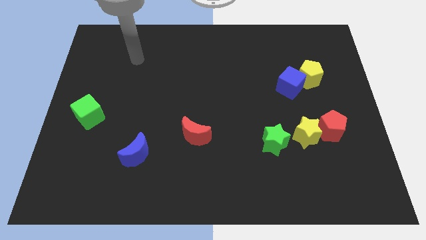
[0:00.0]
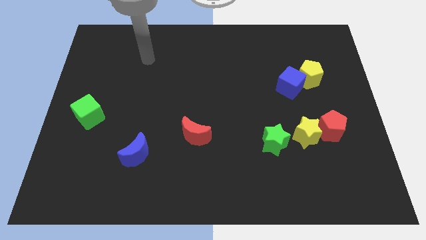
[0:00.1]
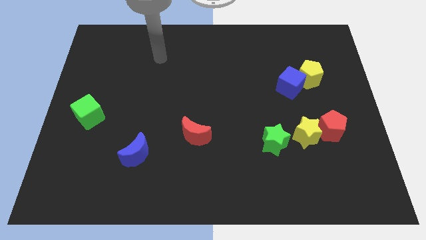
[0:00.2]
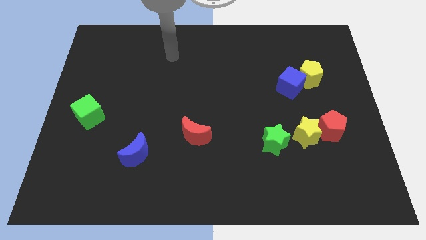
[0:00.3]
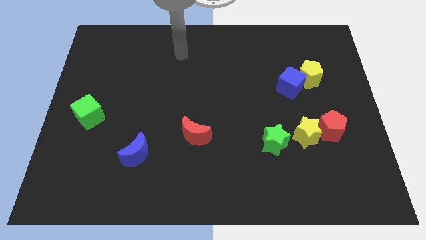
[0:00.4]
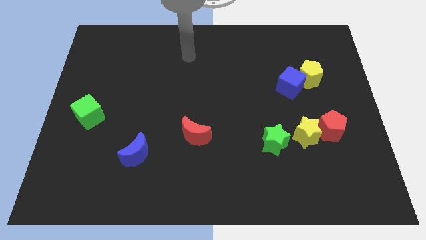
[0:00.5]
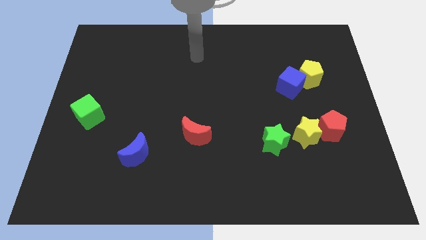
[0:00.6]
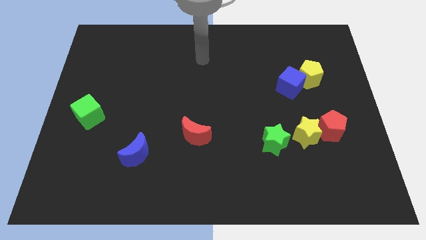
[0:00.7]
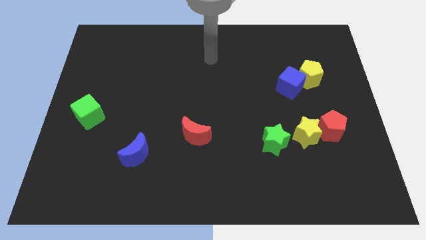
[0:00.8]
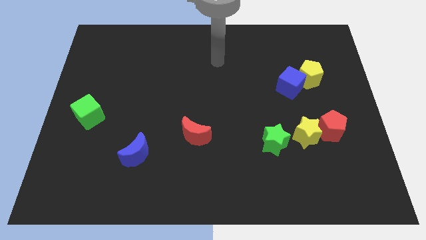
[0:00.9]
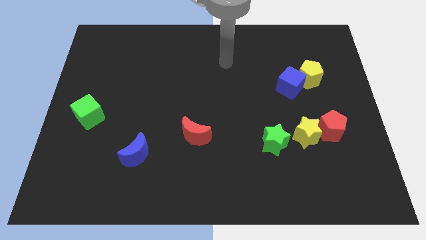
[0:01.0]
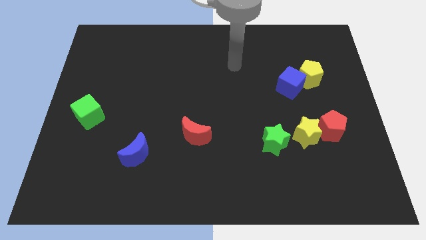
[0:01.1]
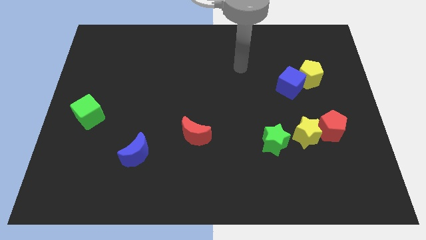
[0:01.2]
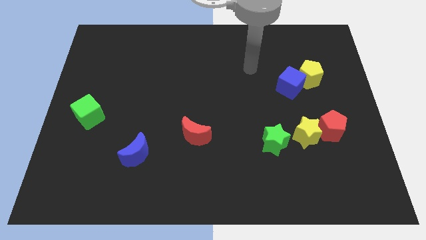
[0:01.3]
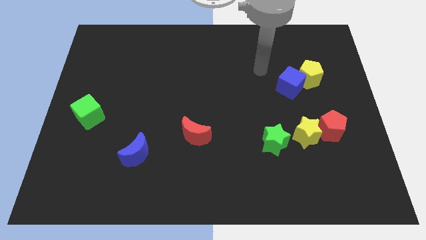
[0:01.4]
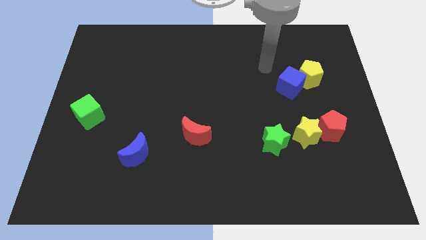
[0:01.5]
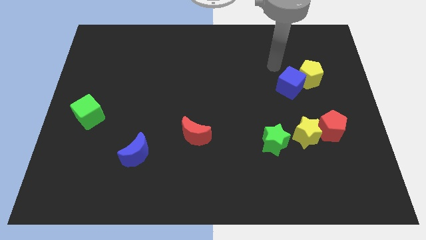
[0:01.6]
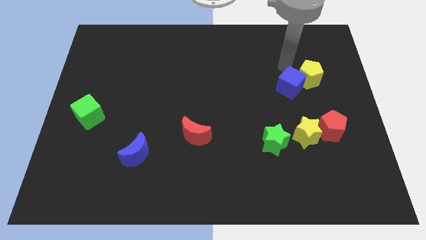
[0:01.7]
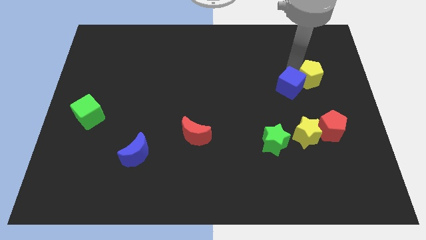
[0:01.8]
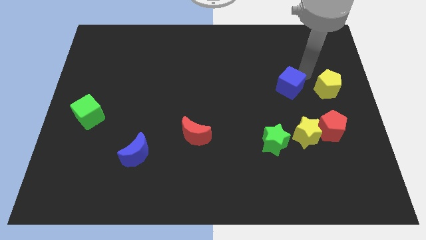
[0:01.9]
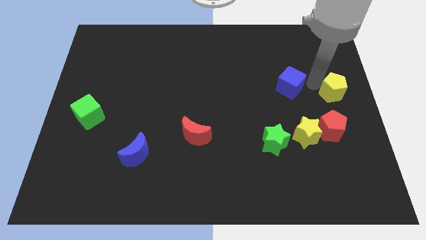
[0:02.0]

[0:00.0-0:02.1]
pull the blue cube apart from the yellow pentagon

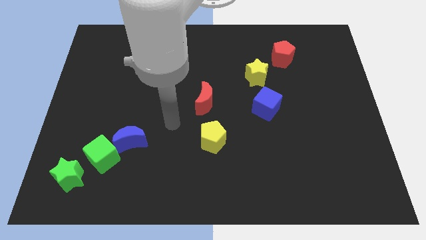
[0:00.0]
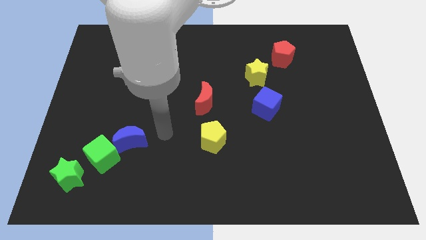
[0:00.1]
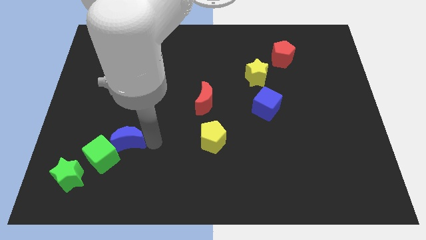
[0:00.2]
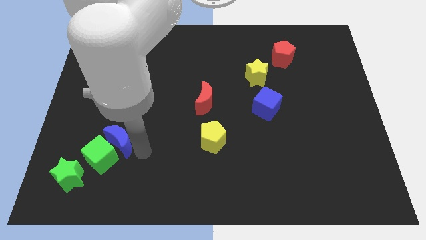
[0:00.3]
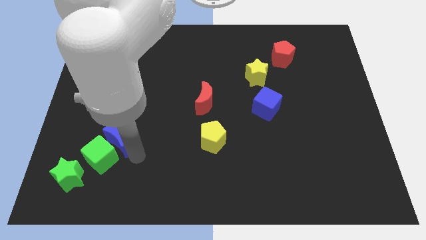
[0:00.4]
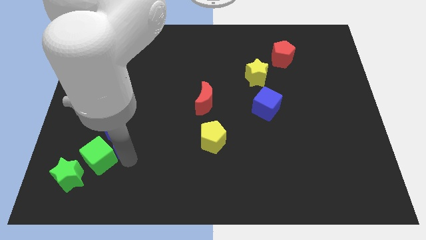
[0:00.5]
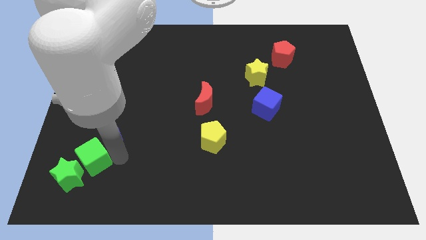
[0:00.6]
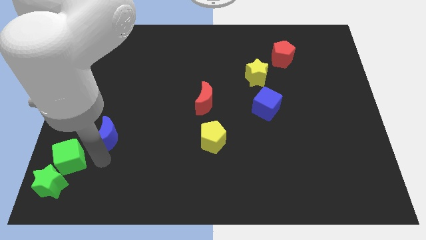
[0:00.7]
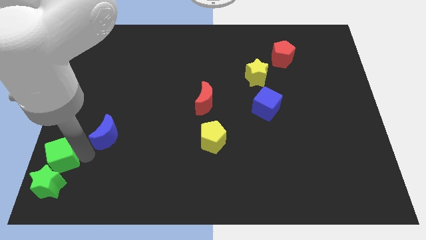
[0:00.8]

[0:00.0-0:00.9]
separate the blue moon from the green cube

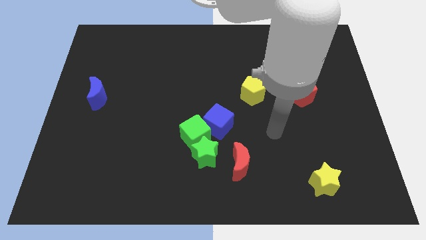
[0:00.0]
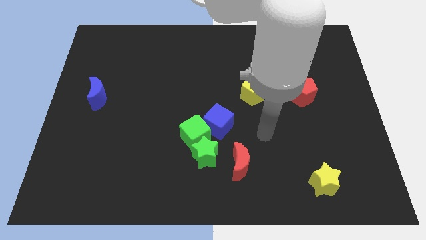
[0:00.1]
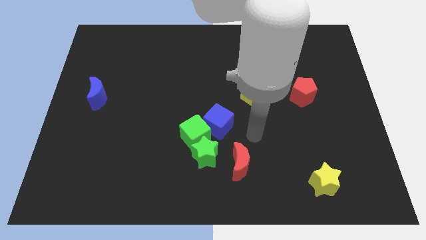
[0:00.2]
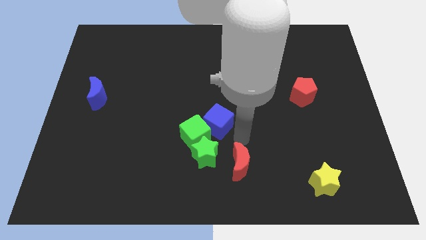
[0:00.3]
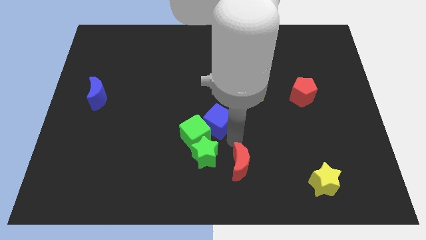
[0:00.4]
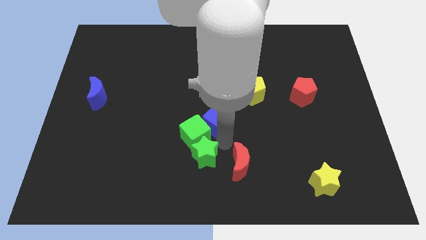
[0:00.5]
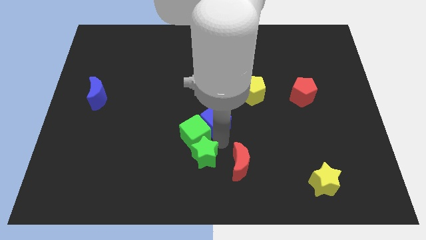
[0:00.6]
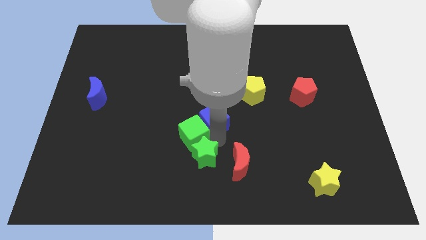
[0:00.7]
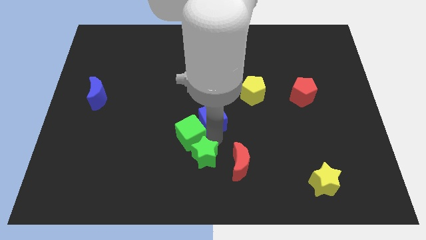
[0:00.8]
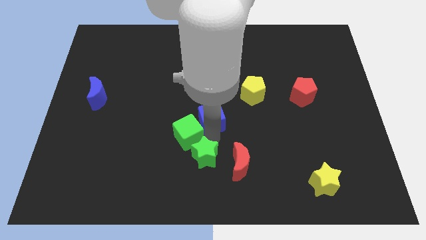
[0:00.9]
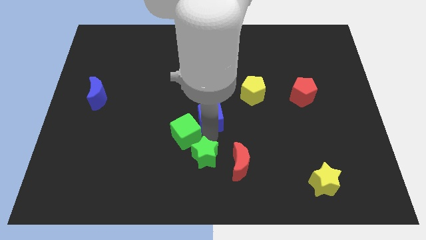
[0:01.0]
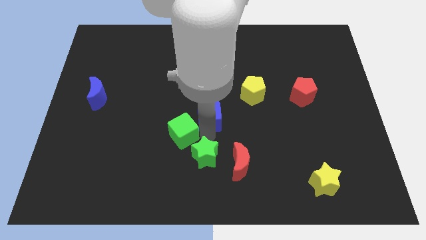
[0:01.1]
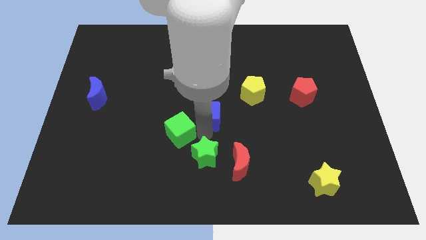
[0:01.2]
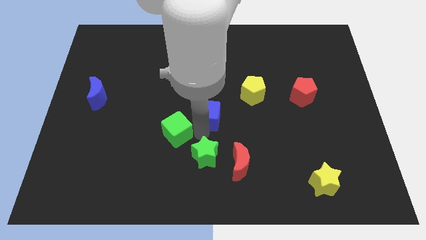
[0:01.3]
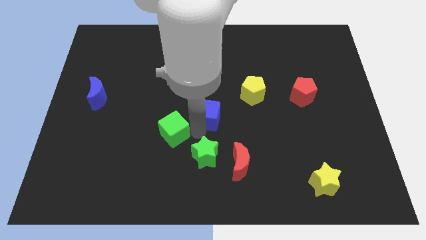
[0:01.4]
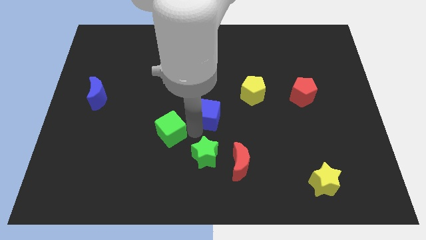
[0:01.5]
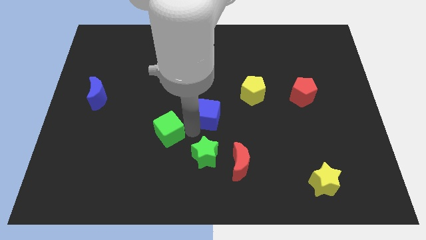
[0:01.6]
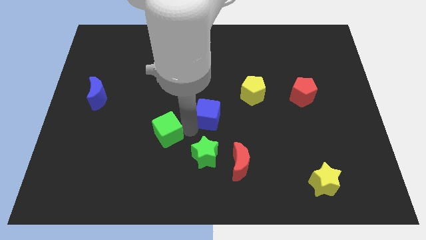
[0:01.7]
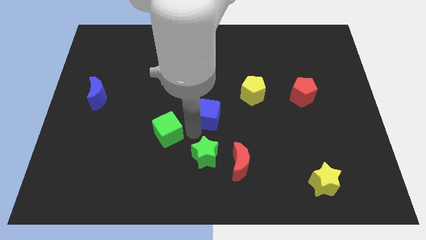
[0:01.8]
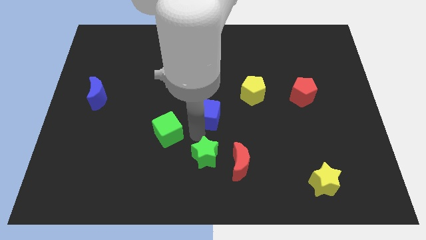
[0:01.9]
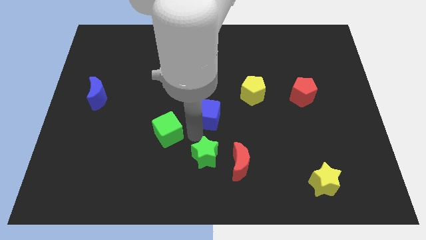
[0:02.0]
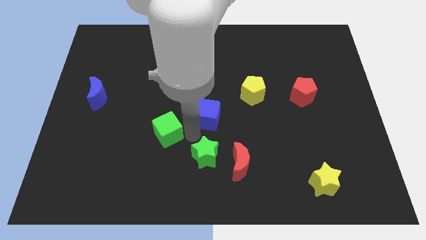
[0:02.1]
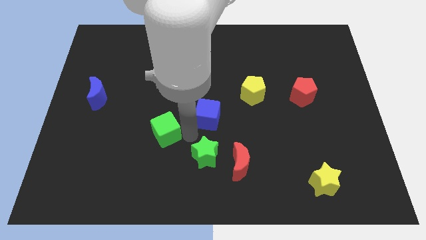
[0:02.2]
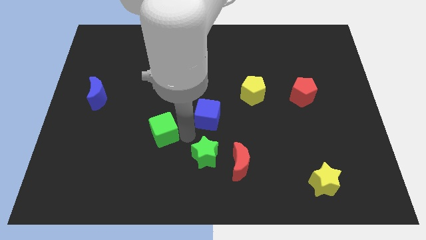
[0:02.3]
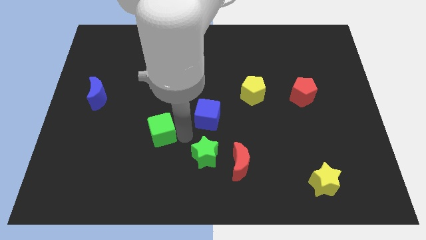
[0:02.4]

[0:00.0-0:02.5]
move the green cube away from the green star and blue cube

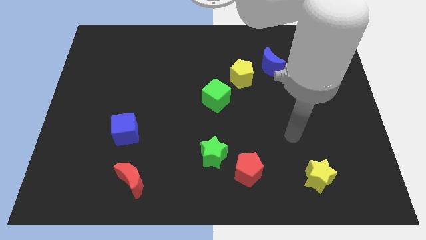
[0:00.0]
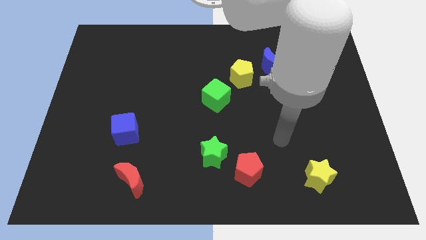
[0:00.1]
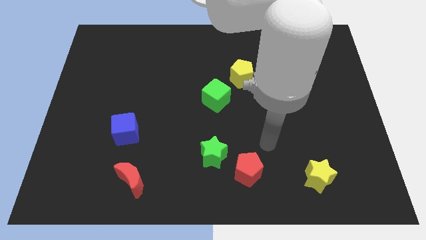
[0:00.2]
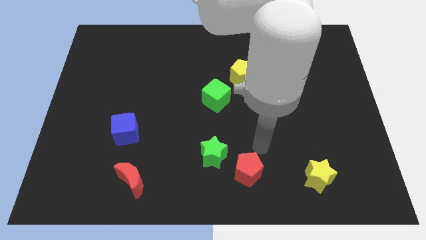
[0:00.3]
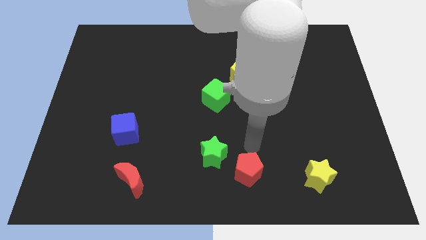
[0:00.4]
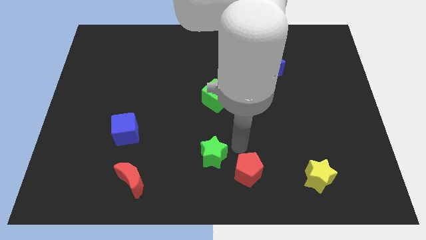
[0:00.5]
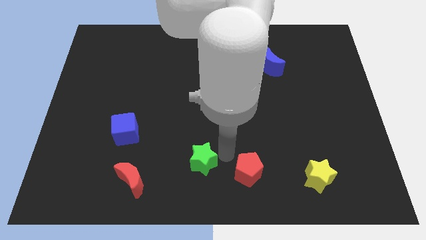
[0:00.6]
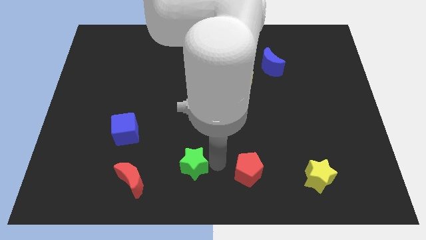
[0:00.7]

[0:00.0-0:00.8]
pull the red pentagon apart from the green star

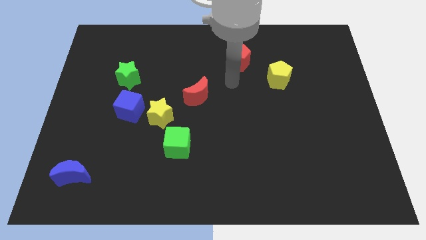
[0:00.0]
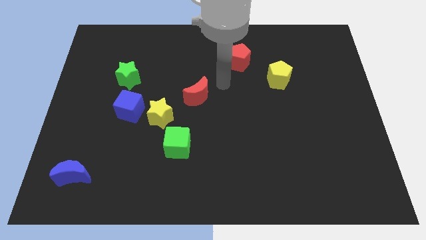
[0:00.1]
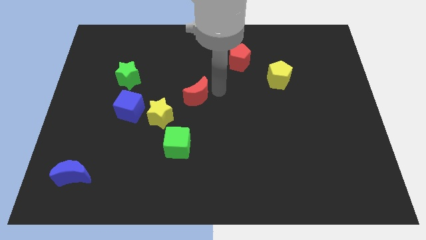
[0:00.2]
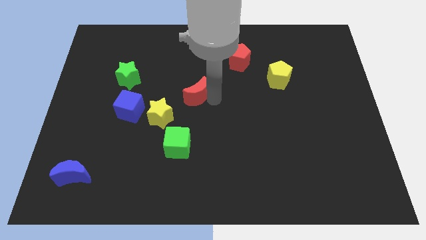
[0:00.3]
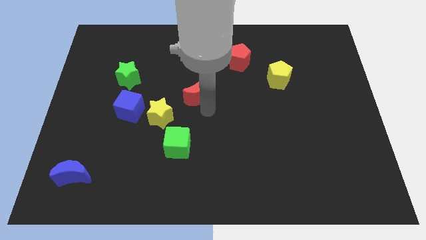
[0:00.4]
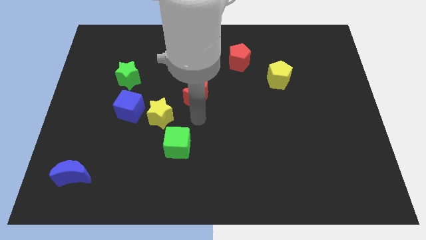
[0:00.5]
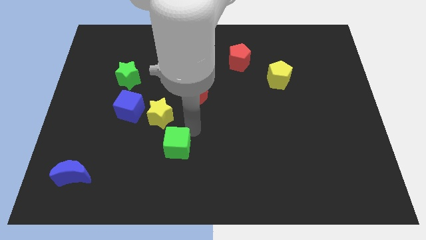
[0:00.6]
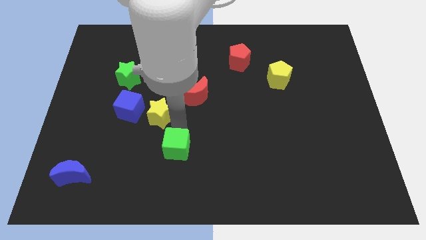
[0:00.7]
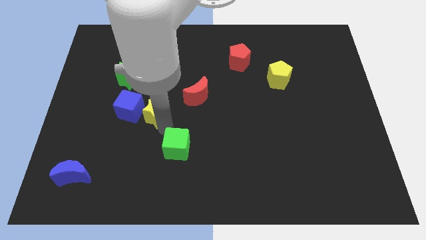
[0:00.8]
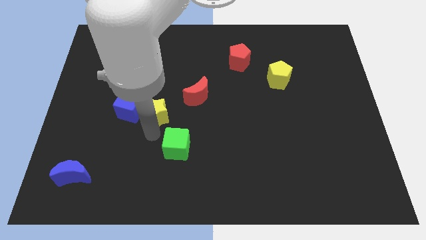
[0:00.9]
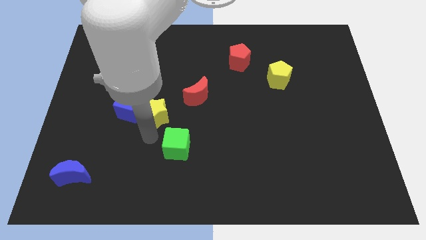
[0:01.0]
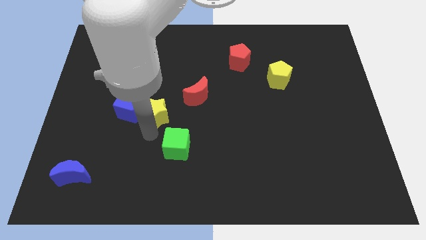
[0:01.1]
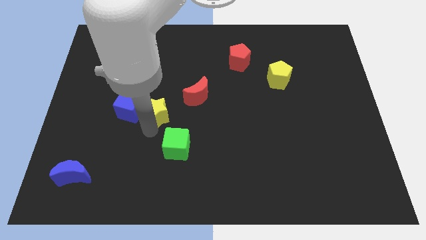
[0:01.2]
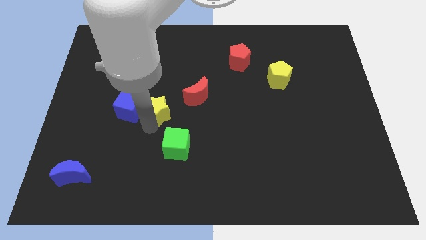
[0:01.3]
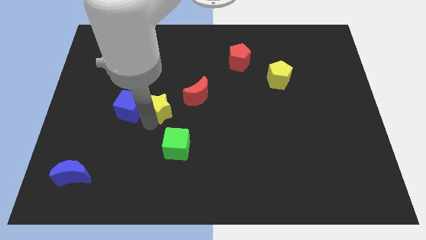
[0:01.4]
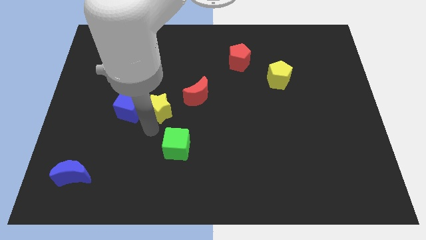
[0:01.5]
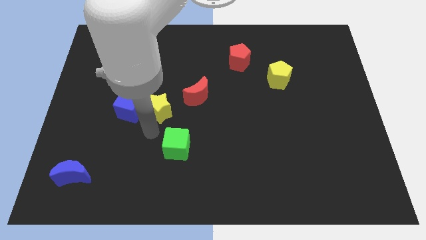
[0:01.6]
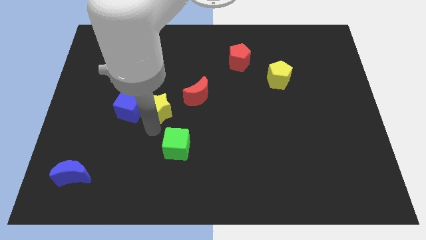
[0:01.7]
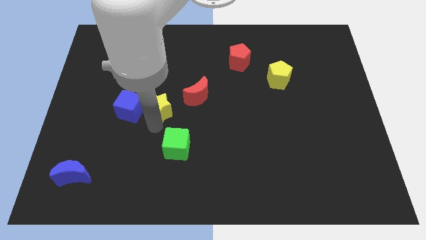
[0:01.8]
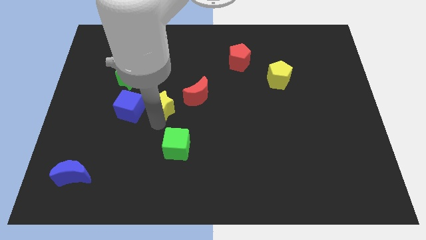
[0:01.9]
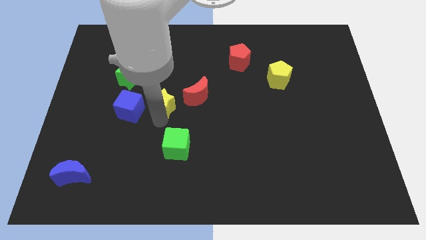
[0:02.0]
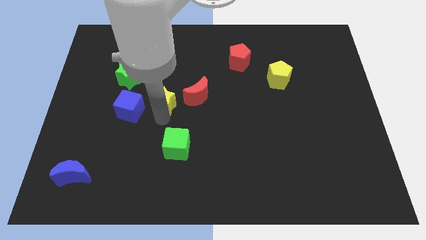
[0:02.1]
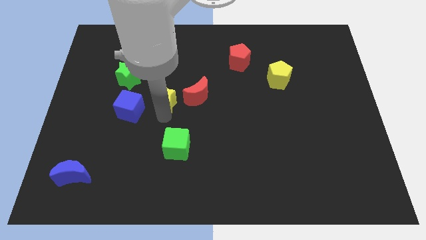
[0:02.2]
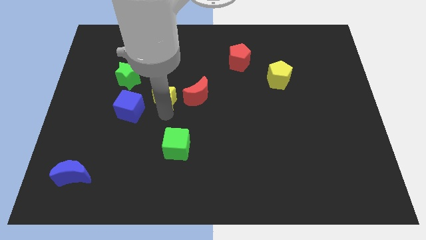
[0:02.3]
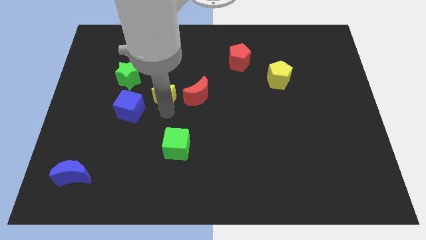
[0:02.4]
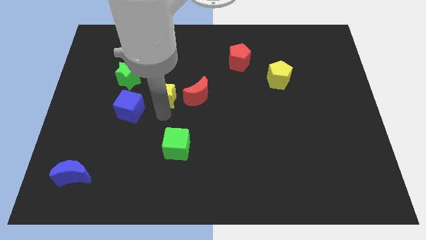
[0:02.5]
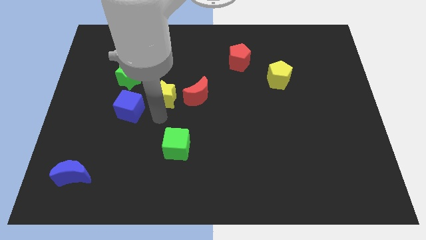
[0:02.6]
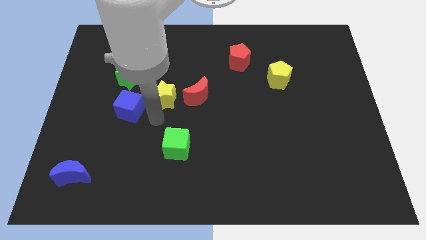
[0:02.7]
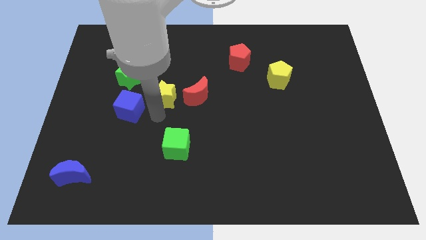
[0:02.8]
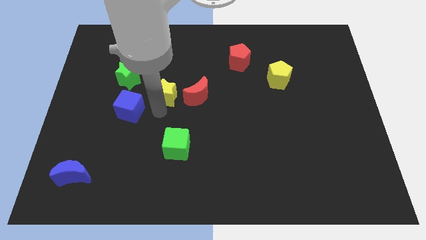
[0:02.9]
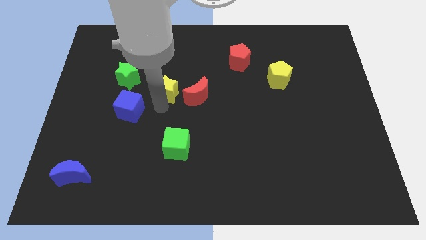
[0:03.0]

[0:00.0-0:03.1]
separate the yellow star from the blue cube and green cube
